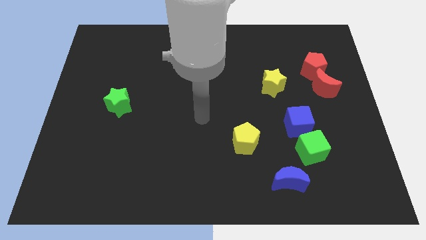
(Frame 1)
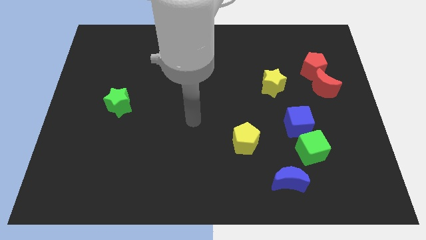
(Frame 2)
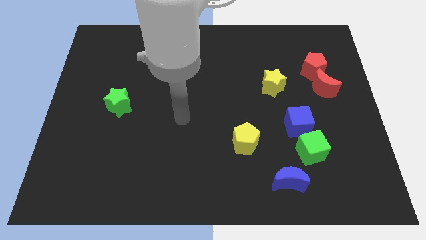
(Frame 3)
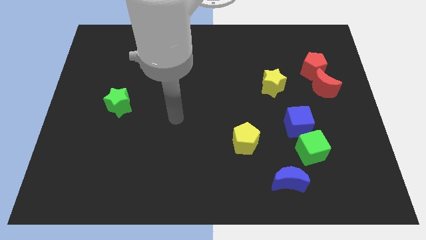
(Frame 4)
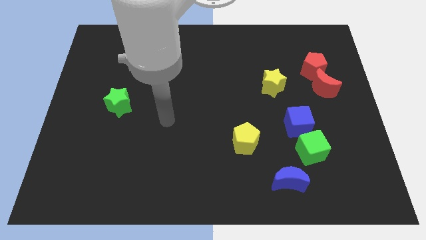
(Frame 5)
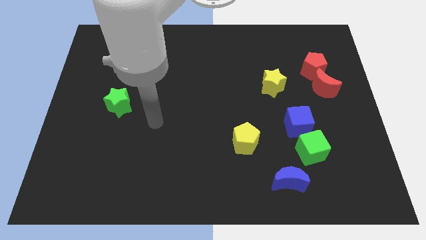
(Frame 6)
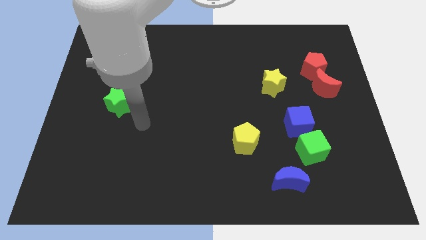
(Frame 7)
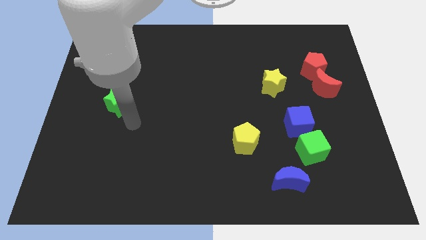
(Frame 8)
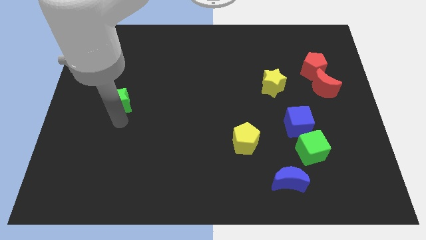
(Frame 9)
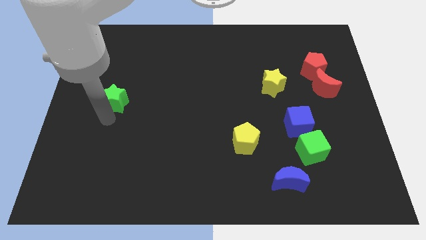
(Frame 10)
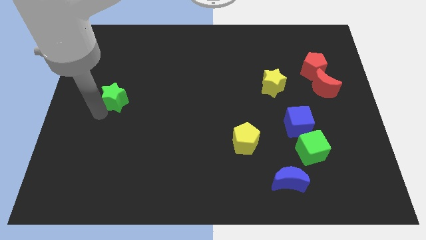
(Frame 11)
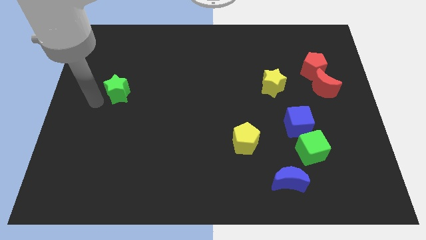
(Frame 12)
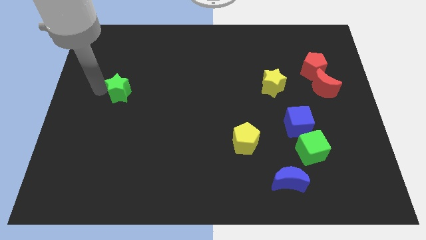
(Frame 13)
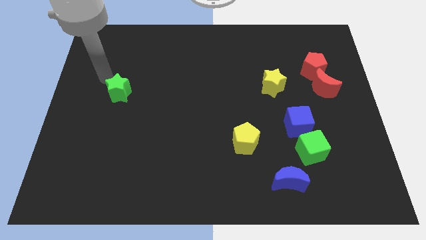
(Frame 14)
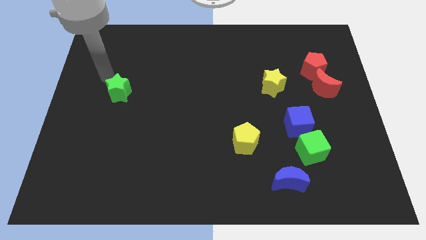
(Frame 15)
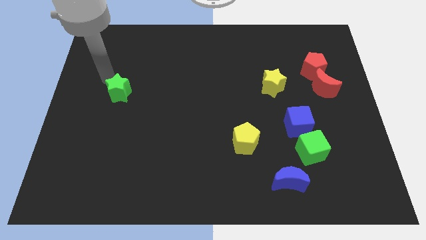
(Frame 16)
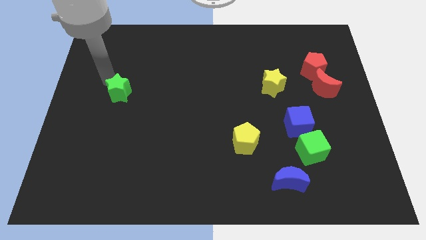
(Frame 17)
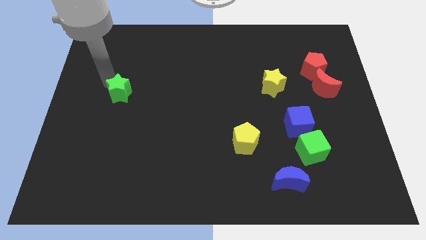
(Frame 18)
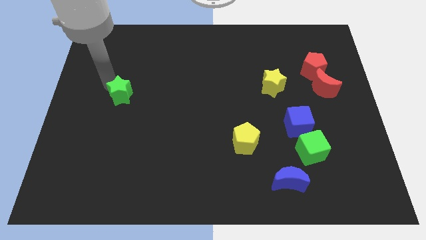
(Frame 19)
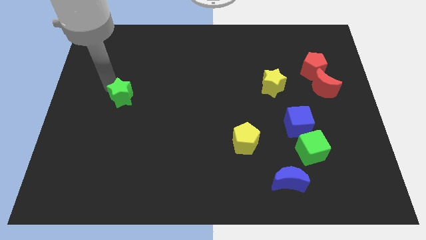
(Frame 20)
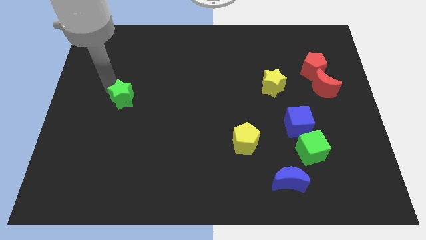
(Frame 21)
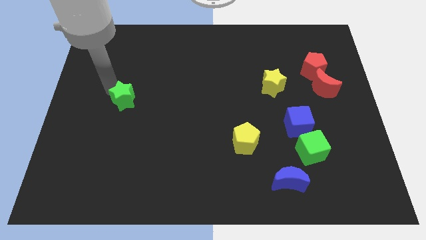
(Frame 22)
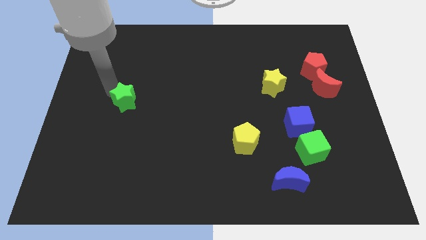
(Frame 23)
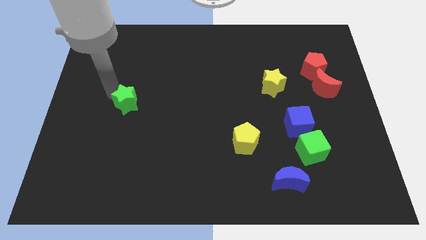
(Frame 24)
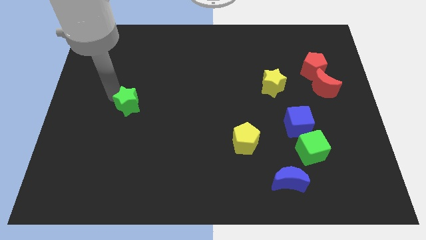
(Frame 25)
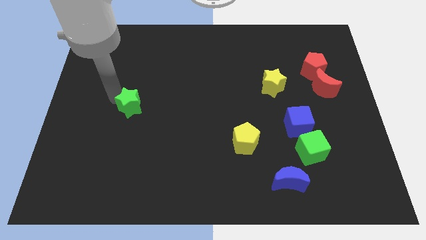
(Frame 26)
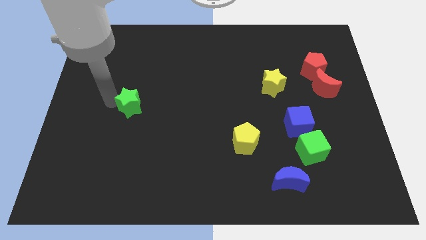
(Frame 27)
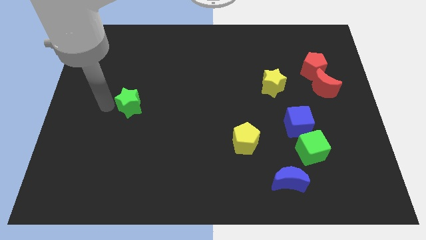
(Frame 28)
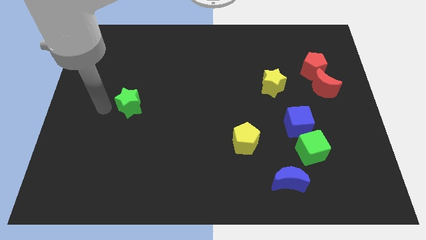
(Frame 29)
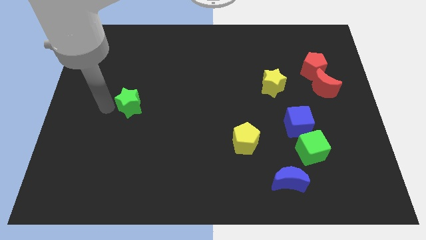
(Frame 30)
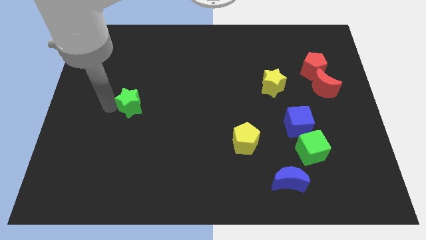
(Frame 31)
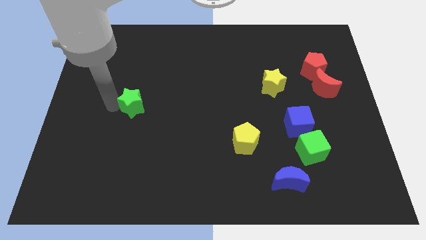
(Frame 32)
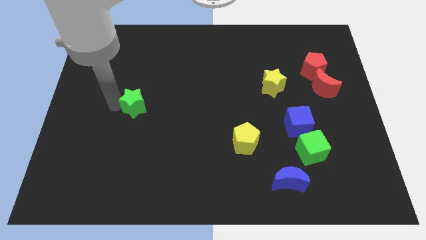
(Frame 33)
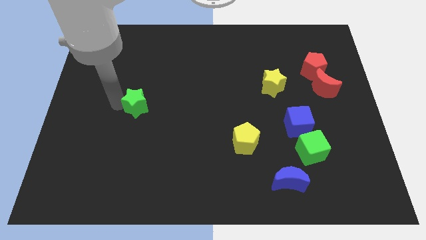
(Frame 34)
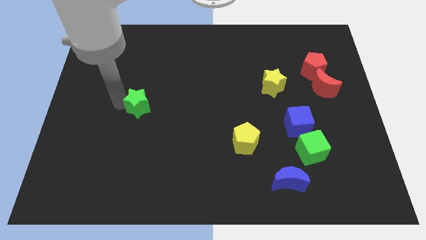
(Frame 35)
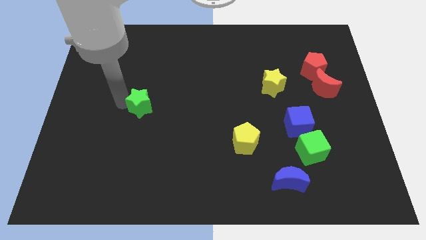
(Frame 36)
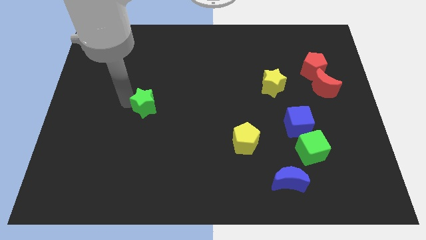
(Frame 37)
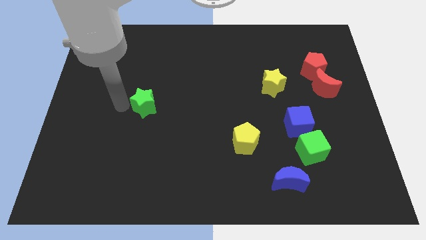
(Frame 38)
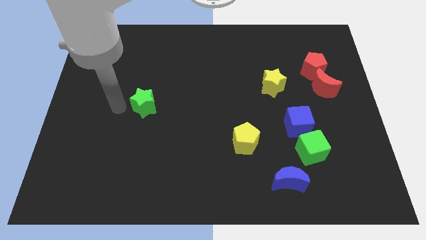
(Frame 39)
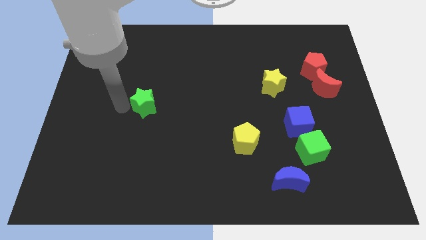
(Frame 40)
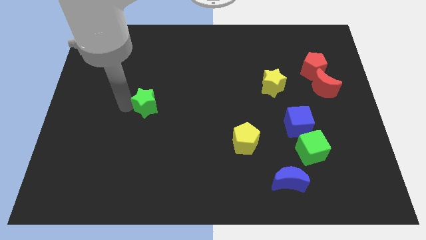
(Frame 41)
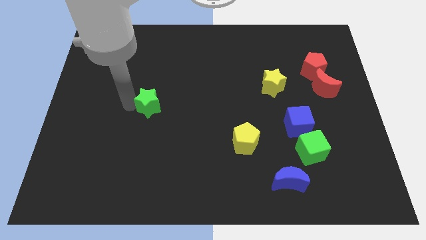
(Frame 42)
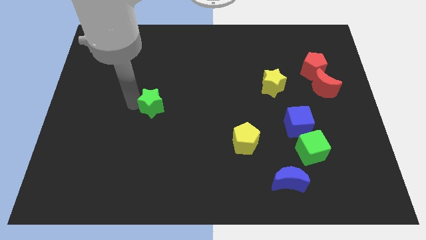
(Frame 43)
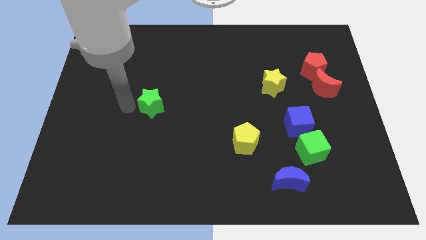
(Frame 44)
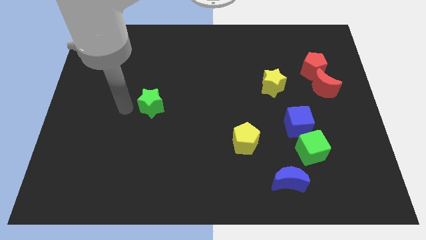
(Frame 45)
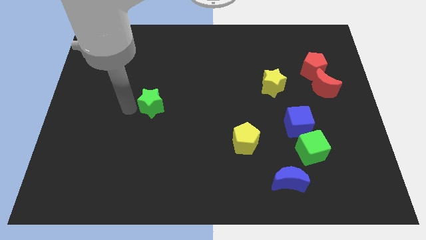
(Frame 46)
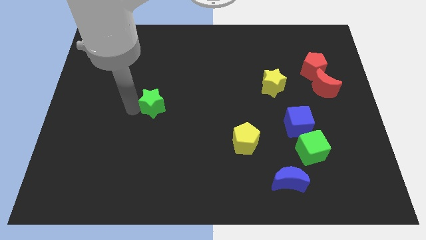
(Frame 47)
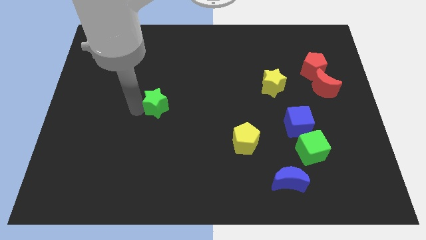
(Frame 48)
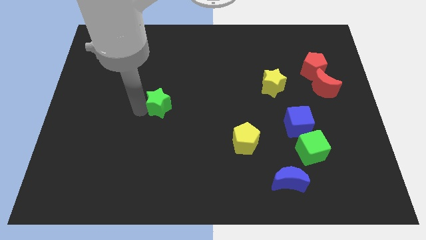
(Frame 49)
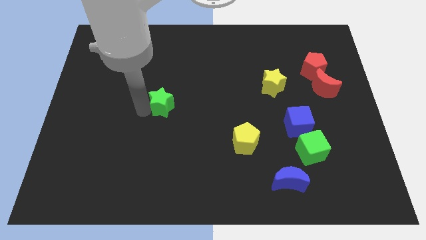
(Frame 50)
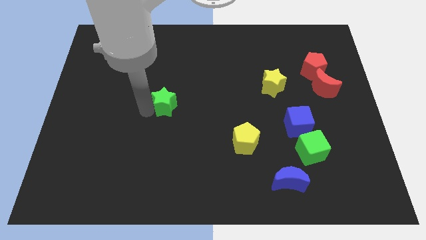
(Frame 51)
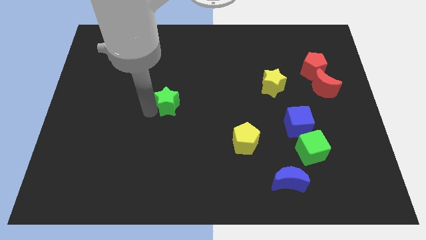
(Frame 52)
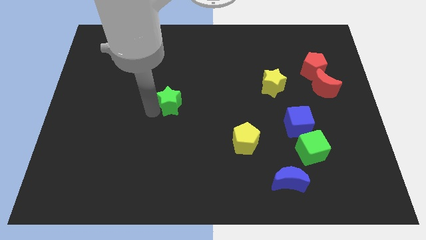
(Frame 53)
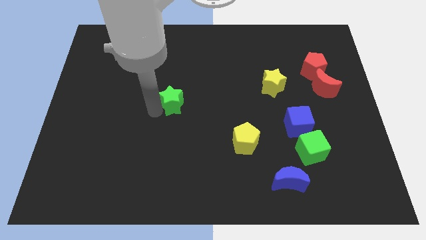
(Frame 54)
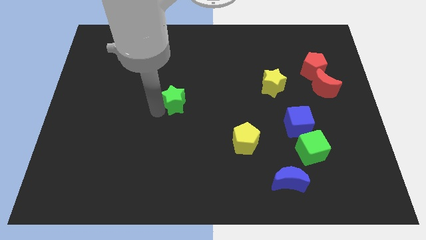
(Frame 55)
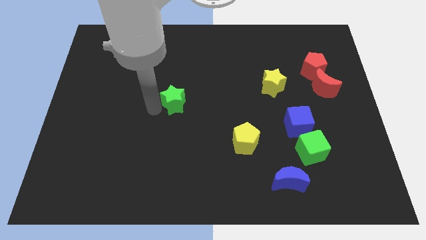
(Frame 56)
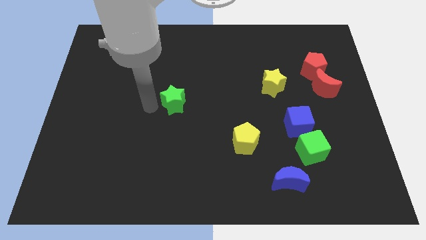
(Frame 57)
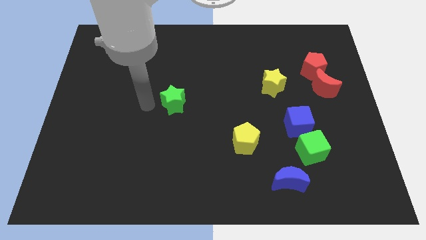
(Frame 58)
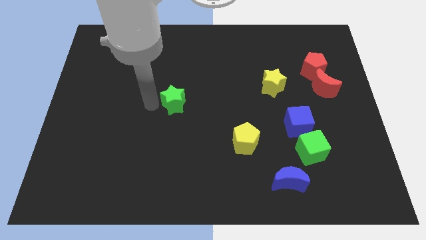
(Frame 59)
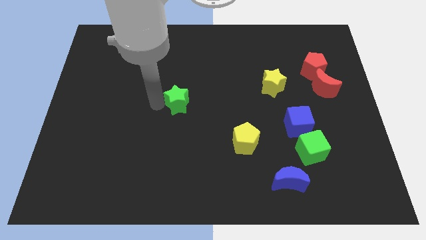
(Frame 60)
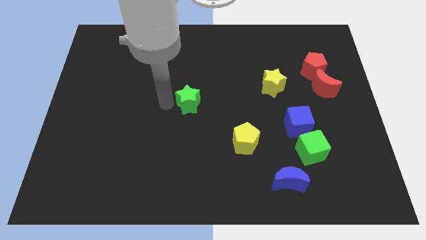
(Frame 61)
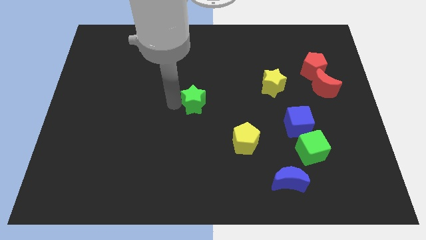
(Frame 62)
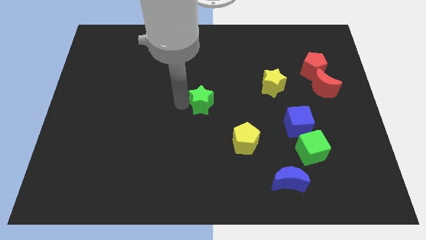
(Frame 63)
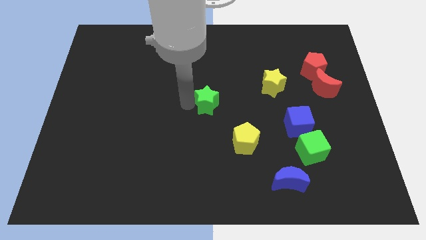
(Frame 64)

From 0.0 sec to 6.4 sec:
push the green star right

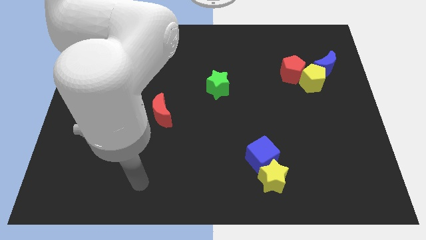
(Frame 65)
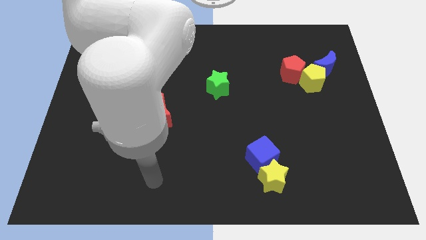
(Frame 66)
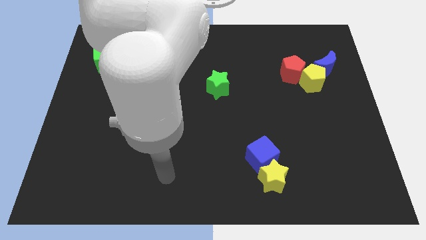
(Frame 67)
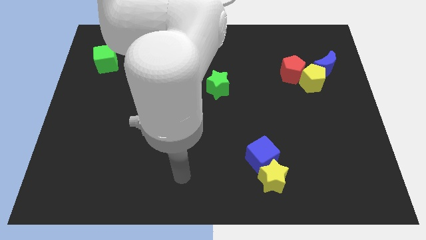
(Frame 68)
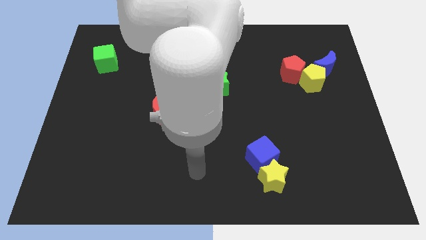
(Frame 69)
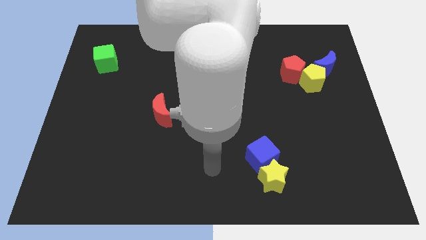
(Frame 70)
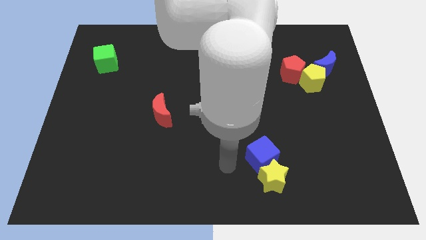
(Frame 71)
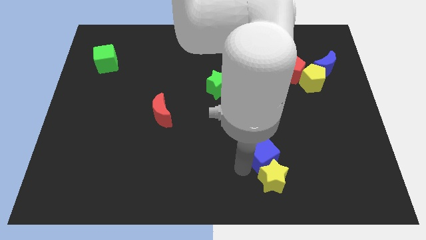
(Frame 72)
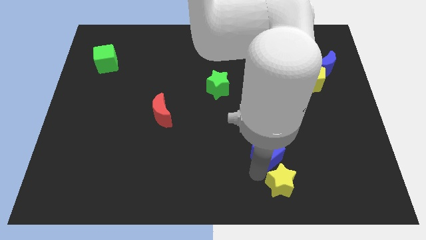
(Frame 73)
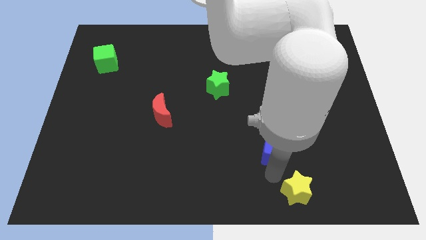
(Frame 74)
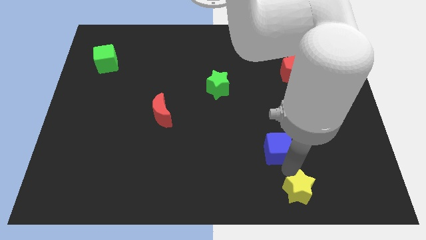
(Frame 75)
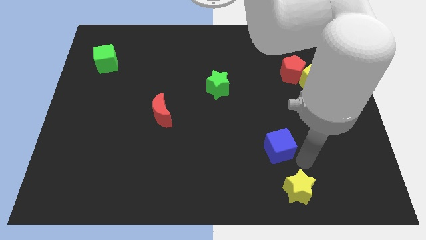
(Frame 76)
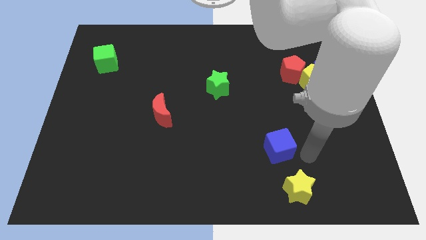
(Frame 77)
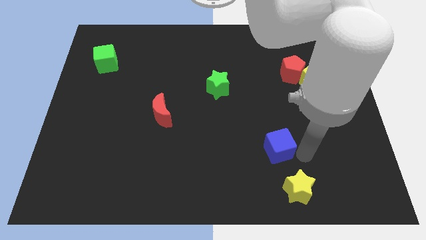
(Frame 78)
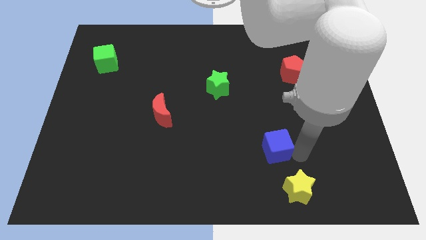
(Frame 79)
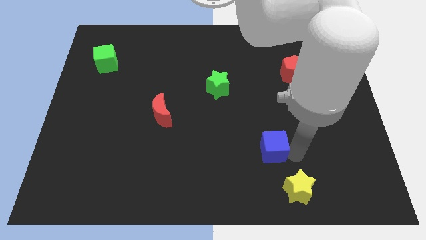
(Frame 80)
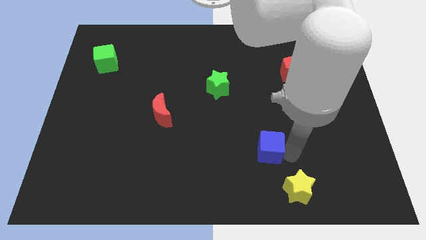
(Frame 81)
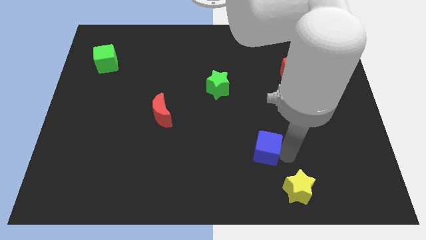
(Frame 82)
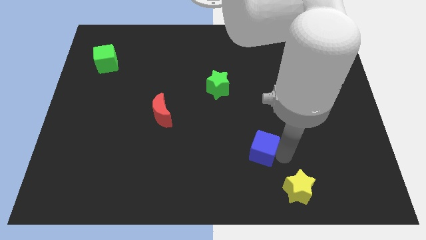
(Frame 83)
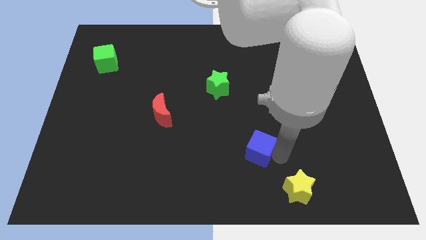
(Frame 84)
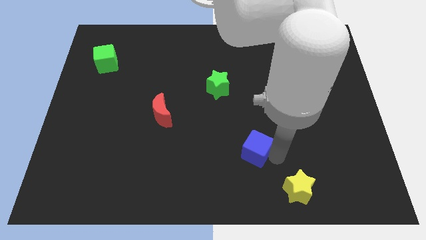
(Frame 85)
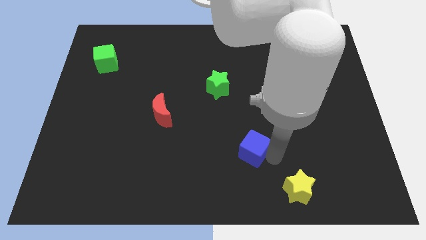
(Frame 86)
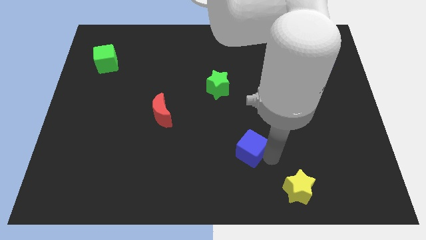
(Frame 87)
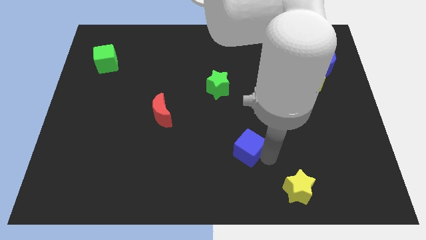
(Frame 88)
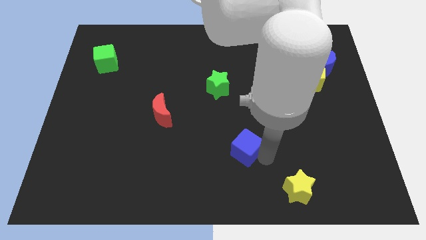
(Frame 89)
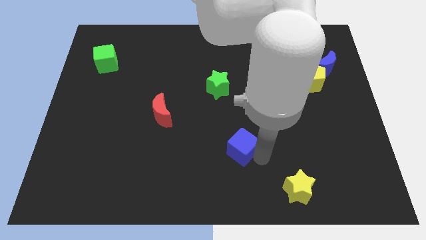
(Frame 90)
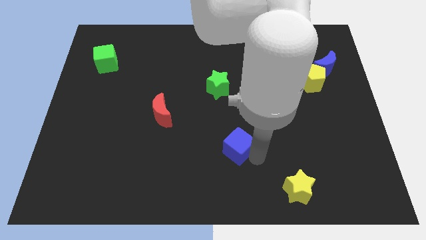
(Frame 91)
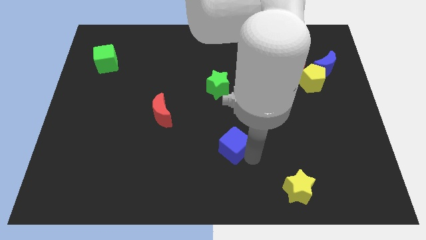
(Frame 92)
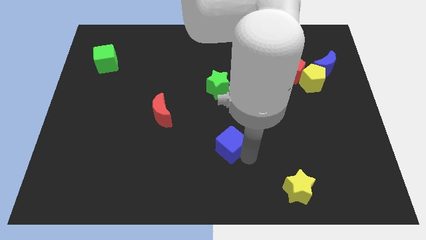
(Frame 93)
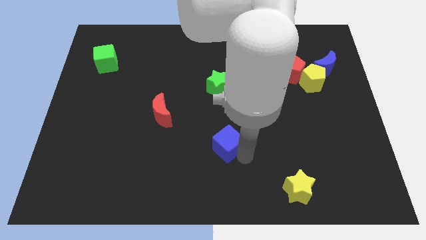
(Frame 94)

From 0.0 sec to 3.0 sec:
move the blue cube up and then left a bit
